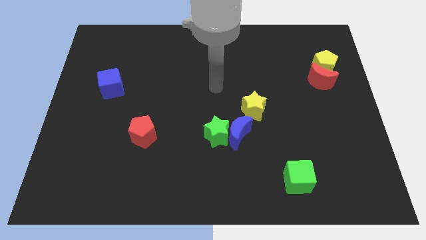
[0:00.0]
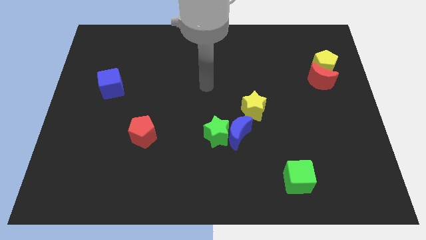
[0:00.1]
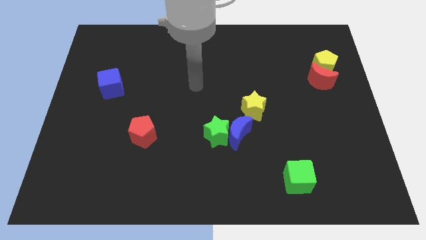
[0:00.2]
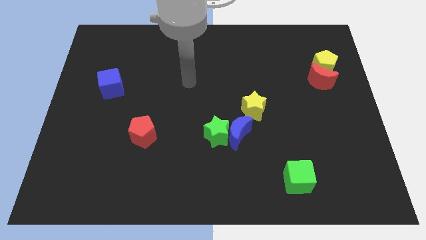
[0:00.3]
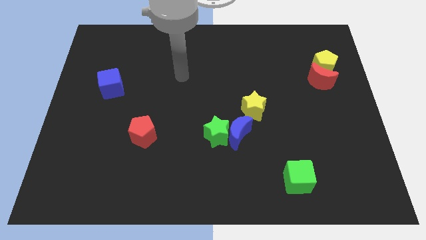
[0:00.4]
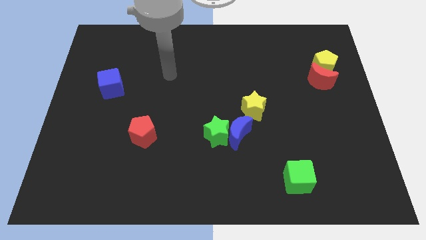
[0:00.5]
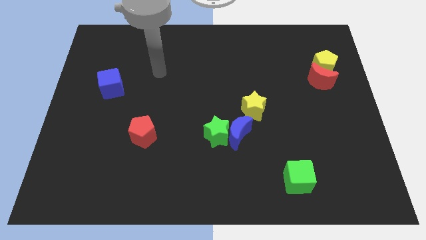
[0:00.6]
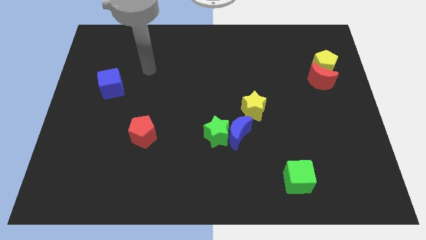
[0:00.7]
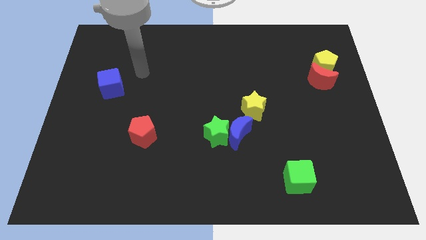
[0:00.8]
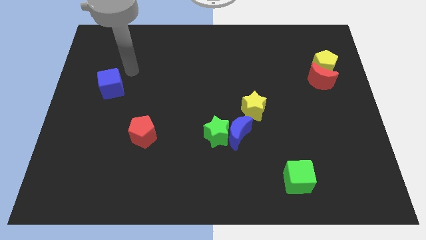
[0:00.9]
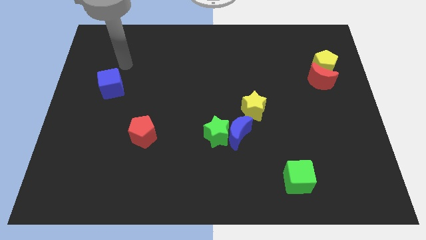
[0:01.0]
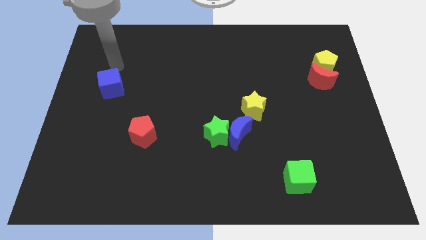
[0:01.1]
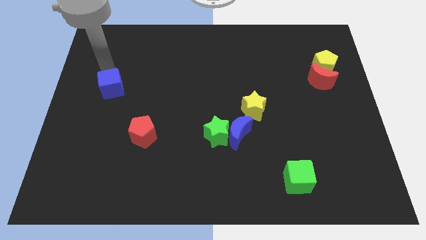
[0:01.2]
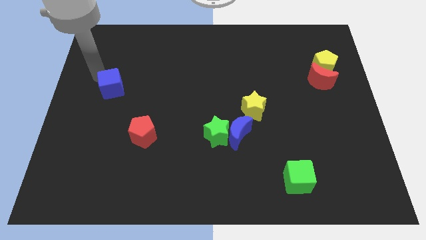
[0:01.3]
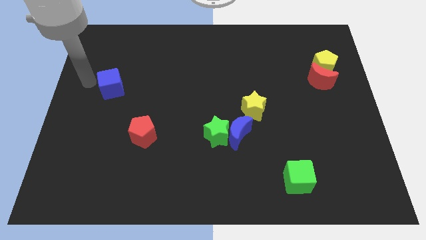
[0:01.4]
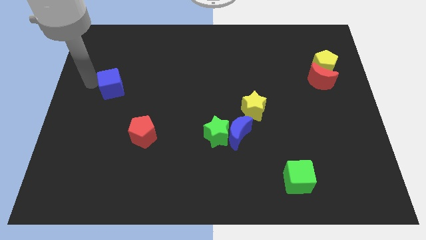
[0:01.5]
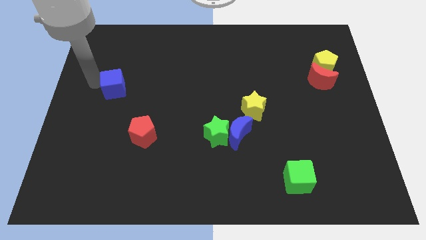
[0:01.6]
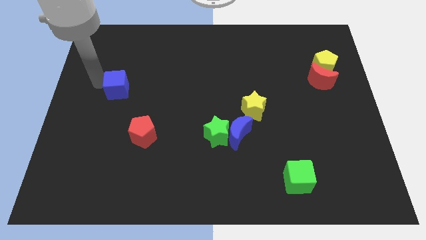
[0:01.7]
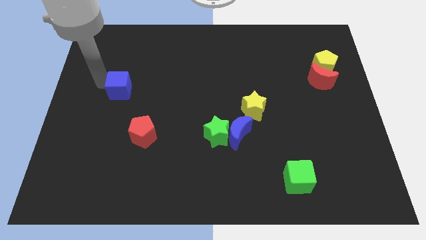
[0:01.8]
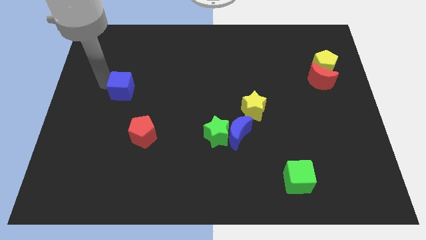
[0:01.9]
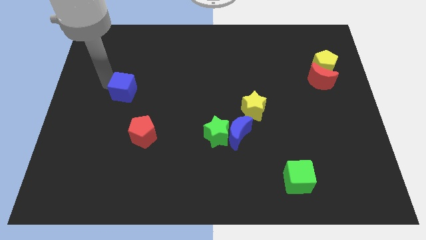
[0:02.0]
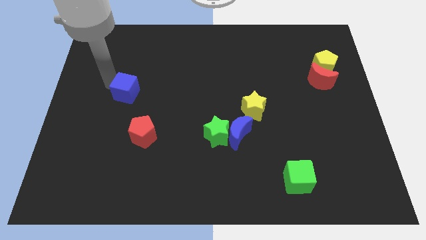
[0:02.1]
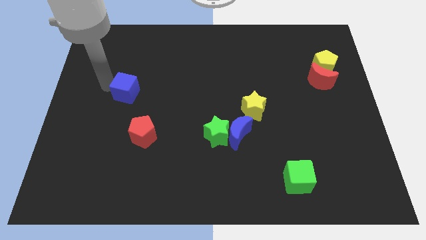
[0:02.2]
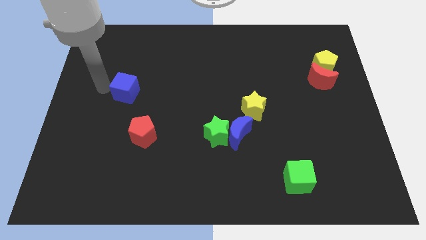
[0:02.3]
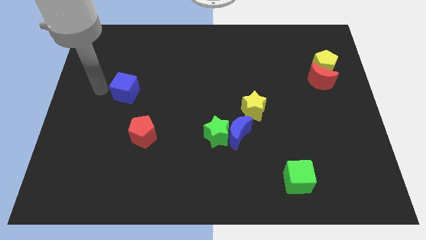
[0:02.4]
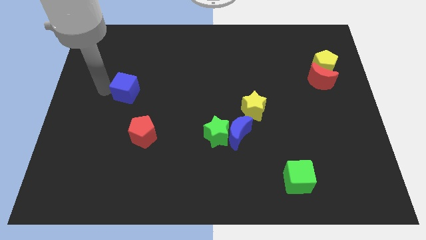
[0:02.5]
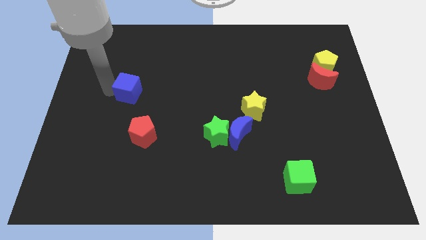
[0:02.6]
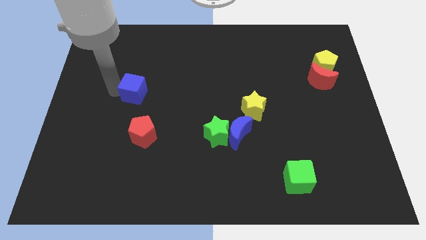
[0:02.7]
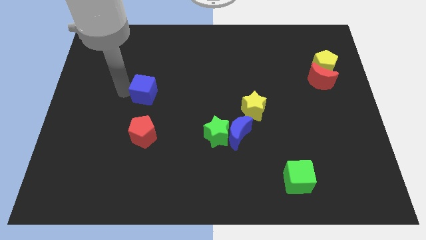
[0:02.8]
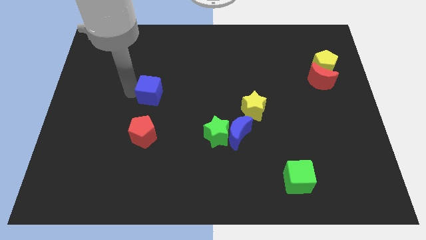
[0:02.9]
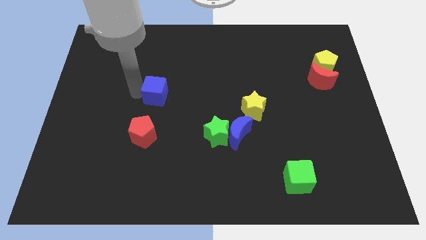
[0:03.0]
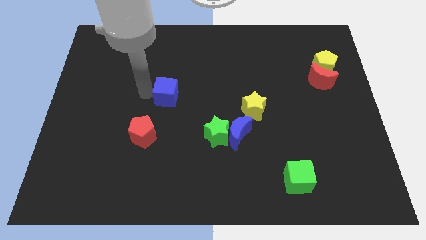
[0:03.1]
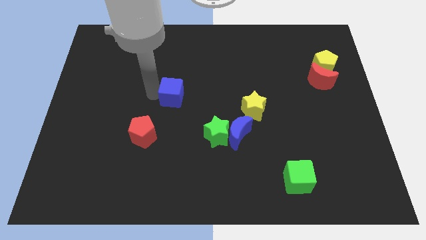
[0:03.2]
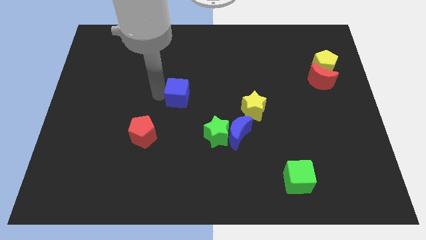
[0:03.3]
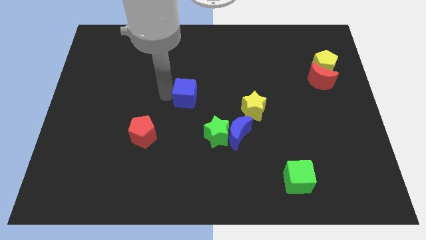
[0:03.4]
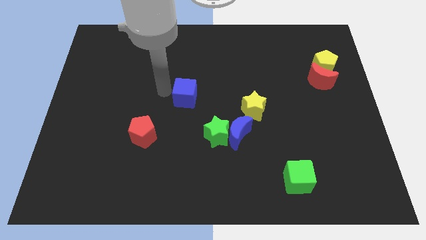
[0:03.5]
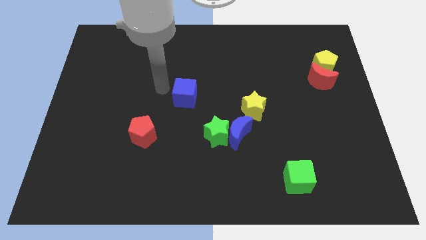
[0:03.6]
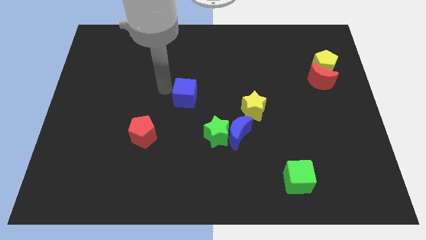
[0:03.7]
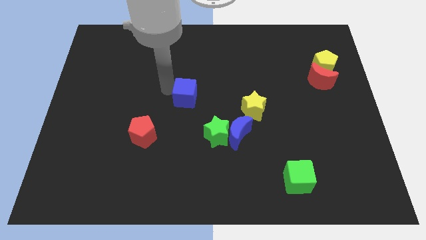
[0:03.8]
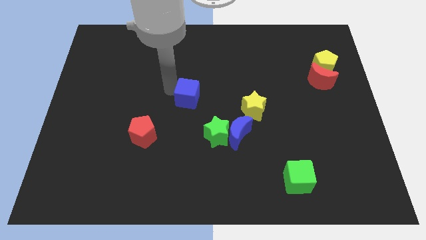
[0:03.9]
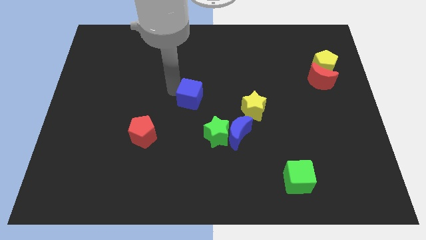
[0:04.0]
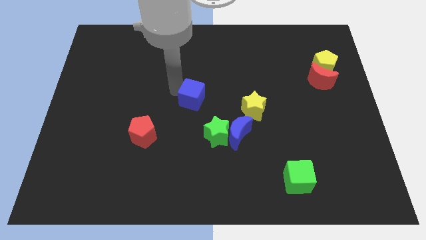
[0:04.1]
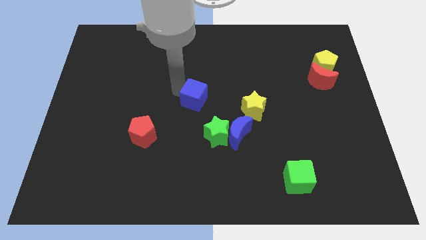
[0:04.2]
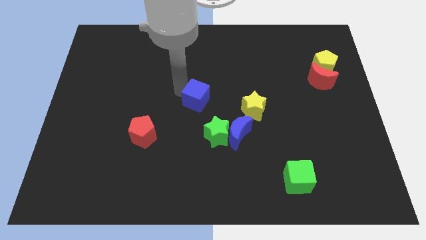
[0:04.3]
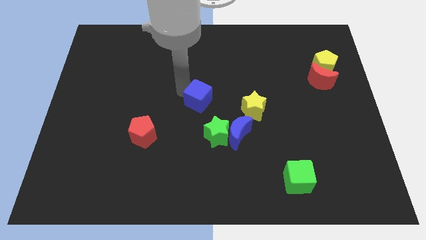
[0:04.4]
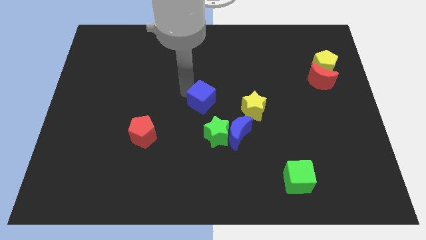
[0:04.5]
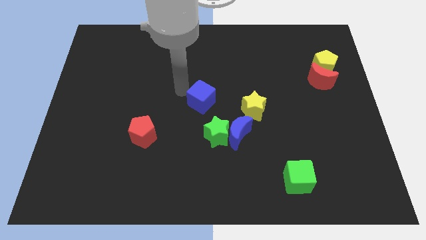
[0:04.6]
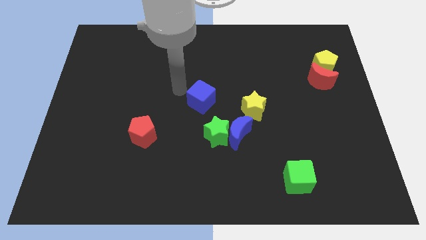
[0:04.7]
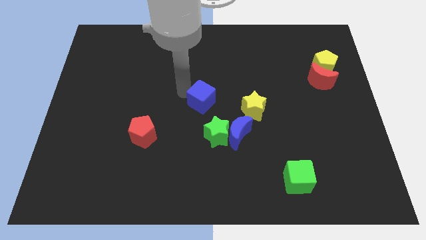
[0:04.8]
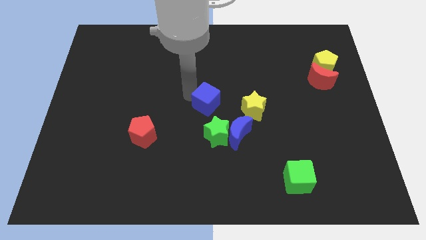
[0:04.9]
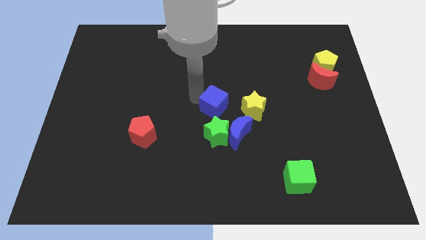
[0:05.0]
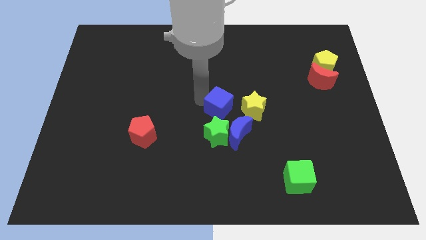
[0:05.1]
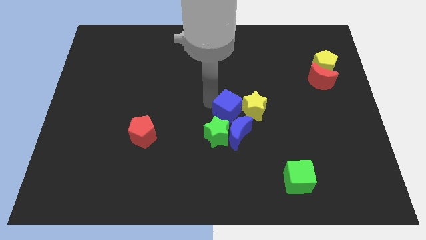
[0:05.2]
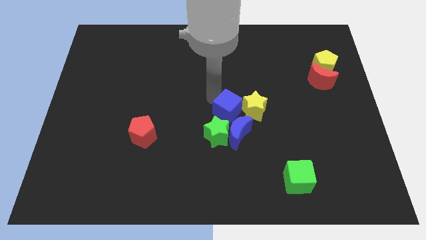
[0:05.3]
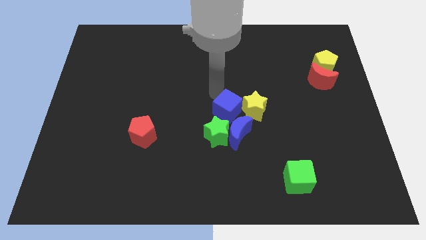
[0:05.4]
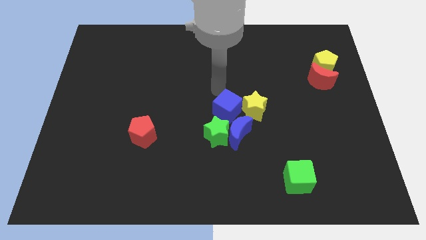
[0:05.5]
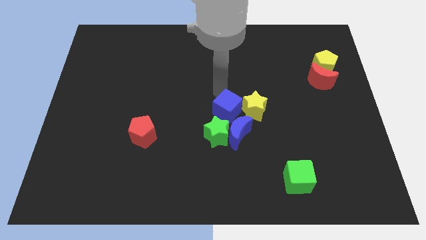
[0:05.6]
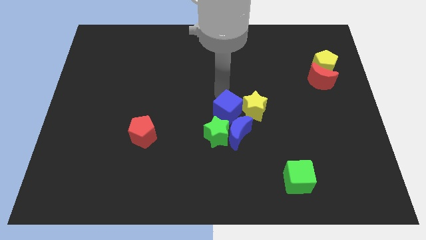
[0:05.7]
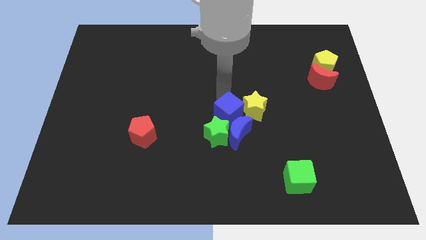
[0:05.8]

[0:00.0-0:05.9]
slide the blue cube towards the blue moon

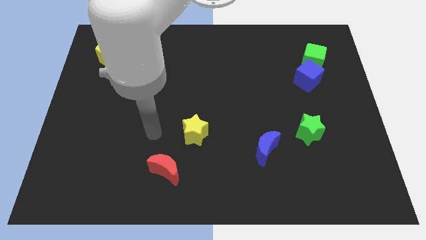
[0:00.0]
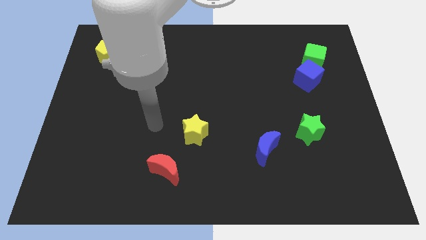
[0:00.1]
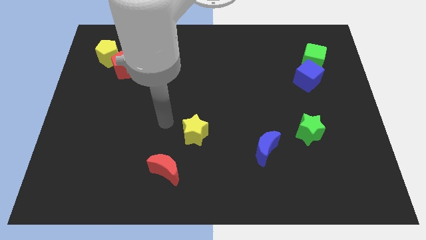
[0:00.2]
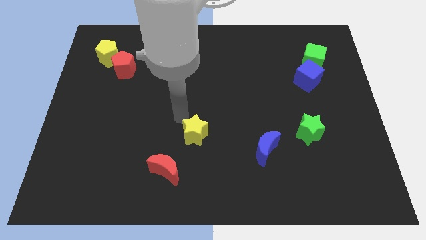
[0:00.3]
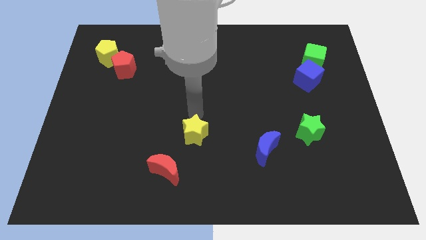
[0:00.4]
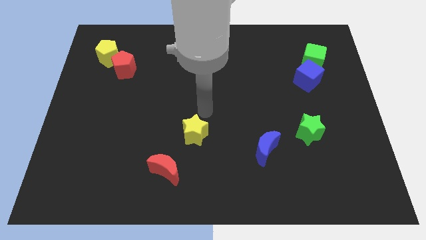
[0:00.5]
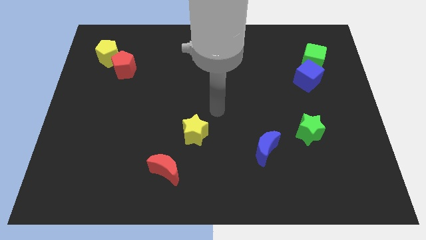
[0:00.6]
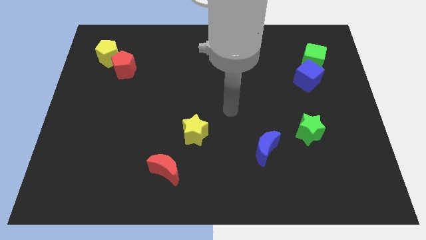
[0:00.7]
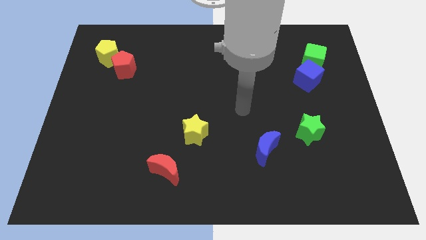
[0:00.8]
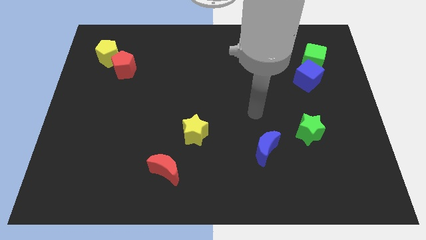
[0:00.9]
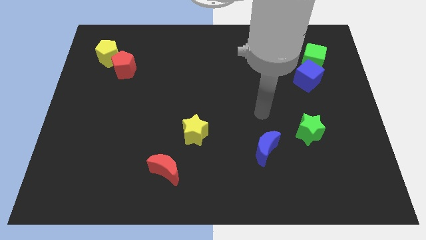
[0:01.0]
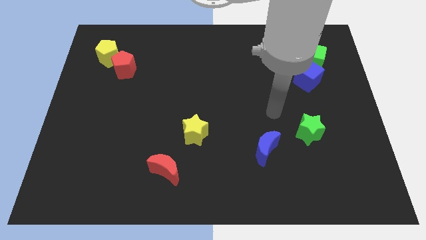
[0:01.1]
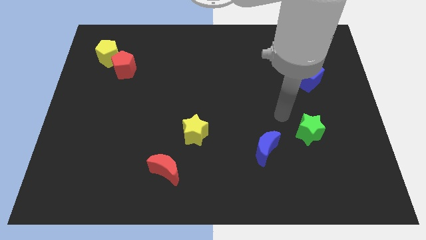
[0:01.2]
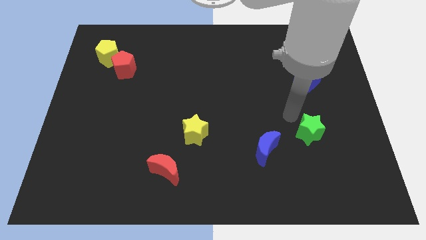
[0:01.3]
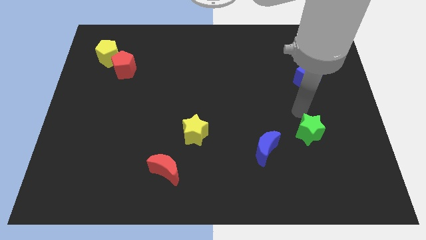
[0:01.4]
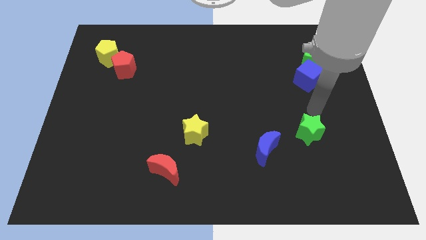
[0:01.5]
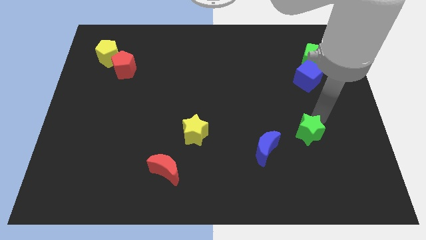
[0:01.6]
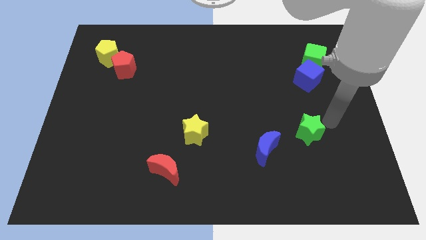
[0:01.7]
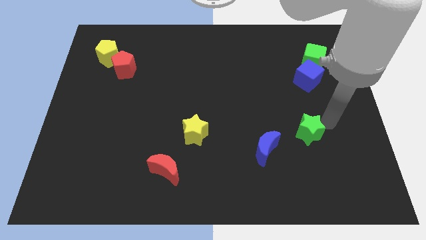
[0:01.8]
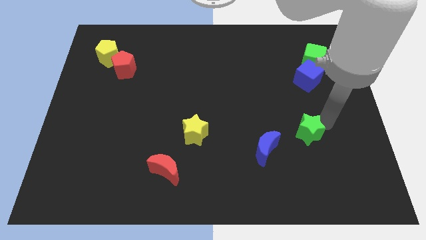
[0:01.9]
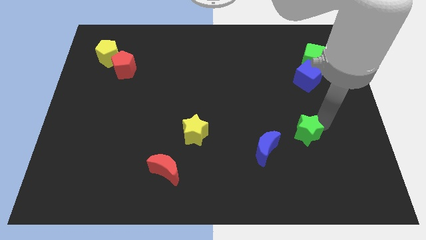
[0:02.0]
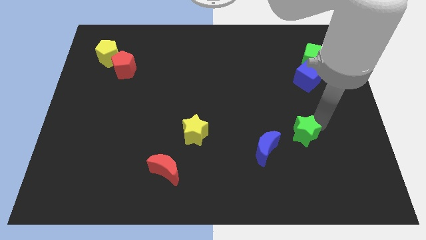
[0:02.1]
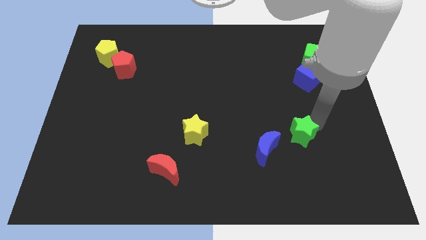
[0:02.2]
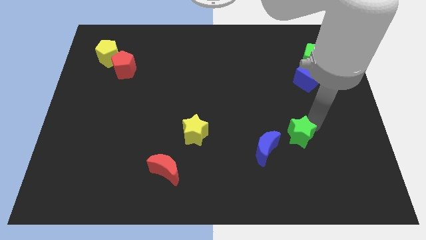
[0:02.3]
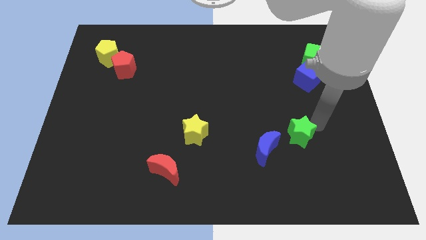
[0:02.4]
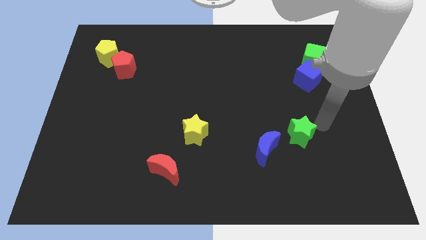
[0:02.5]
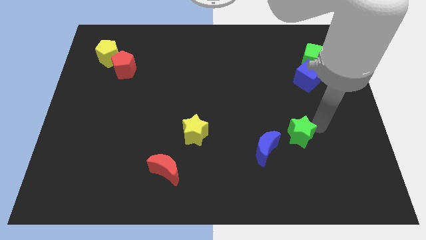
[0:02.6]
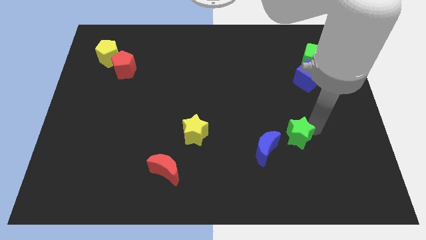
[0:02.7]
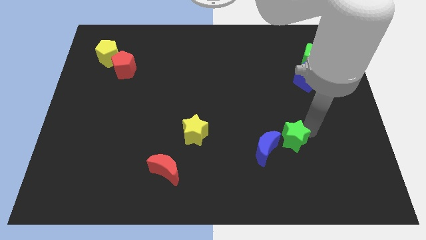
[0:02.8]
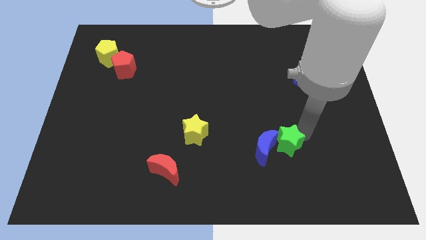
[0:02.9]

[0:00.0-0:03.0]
slide the green star to the blue moon
